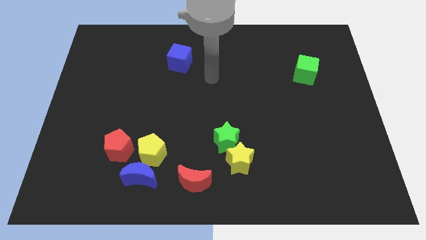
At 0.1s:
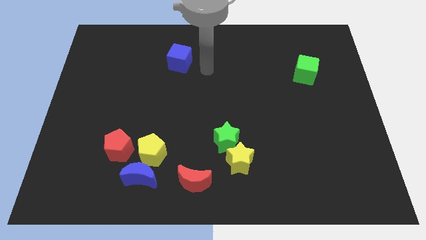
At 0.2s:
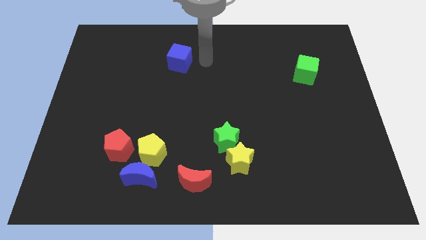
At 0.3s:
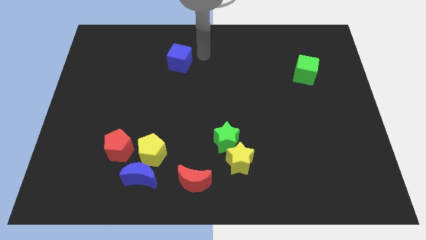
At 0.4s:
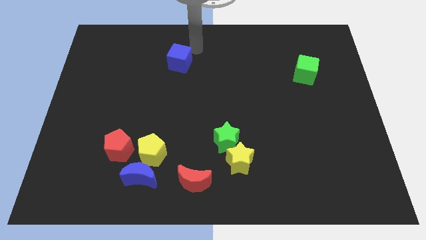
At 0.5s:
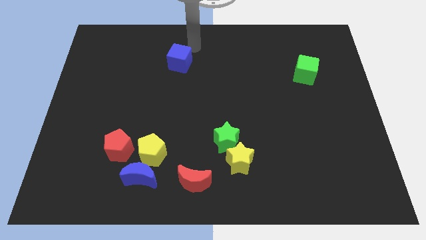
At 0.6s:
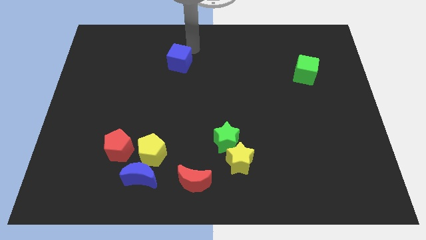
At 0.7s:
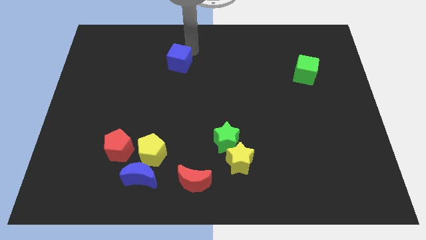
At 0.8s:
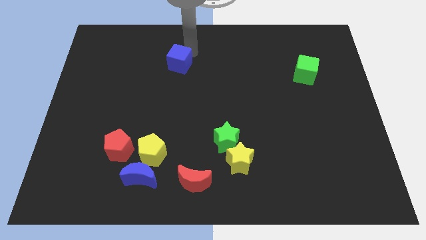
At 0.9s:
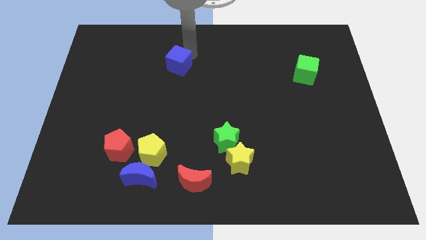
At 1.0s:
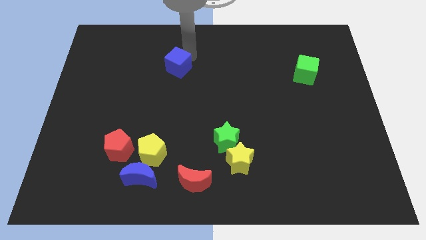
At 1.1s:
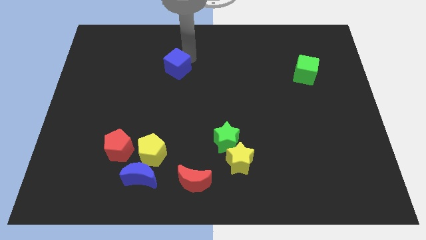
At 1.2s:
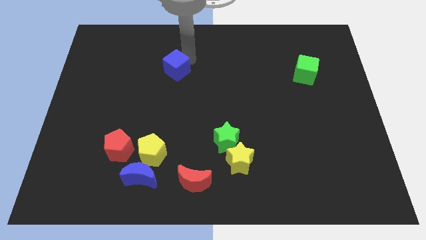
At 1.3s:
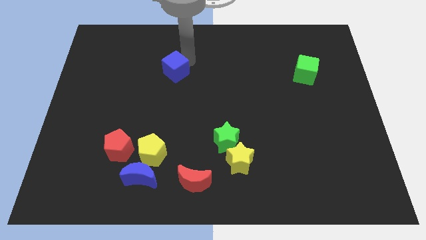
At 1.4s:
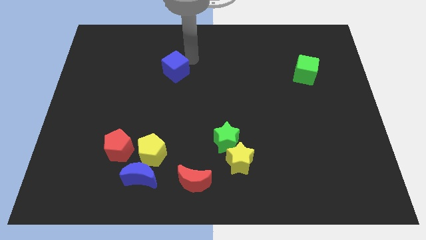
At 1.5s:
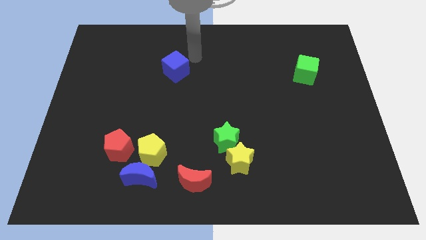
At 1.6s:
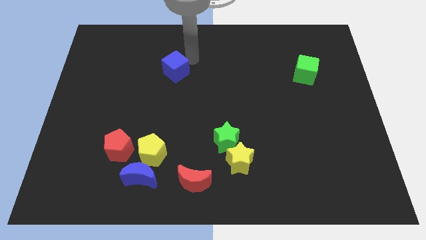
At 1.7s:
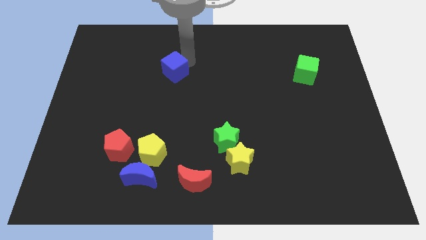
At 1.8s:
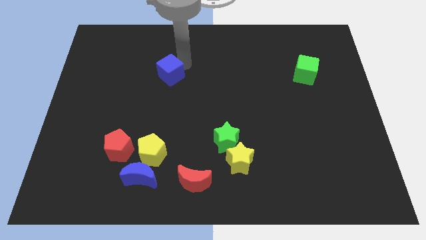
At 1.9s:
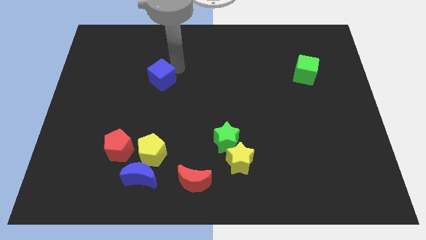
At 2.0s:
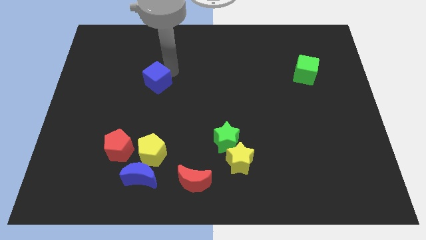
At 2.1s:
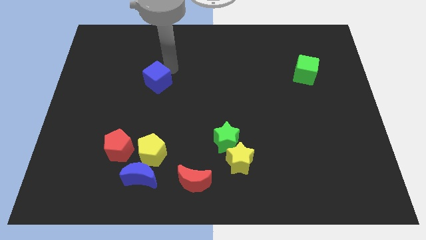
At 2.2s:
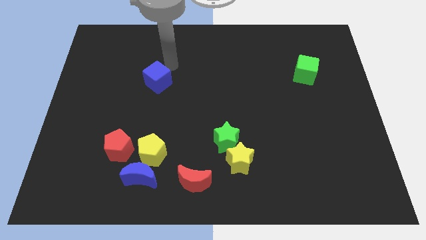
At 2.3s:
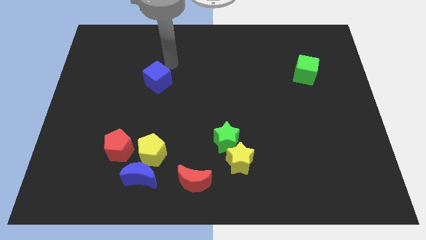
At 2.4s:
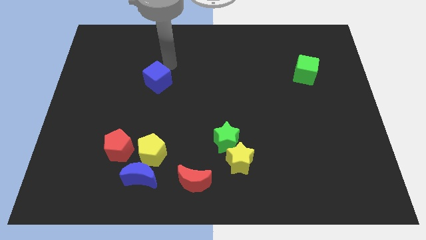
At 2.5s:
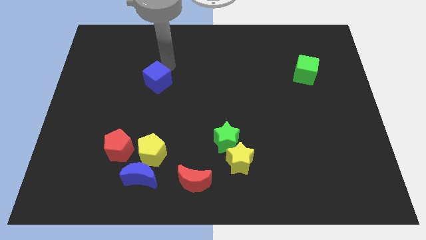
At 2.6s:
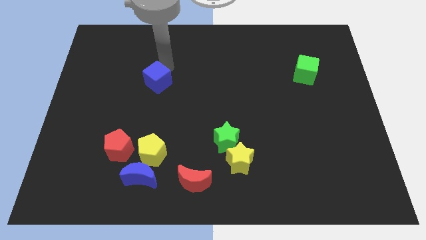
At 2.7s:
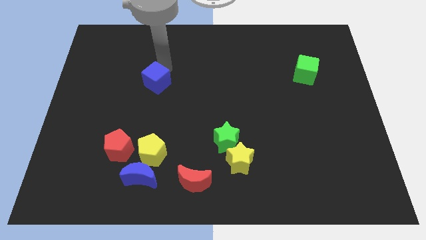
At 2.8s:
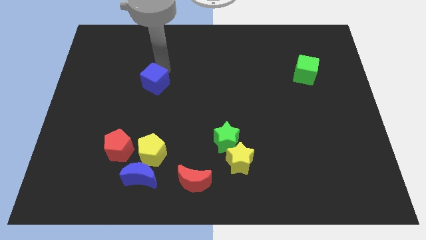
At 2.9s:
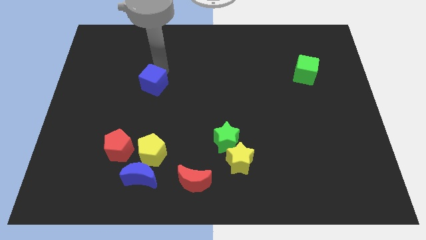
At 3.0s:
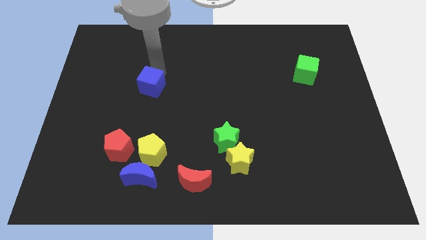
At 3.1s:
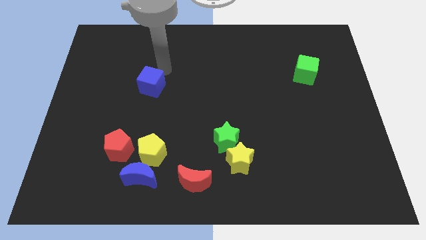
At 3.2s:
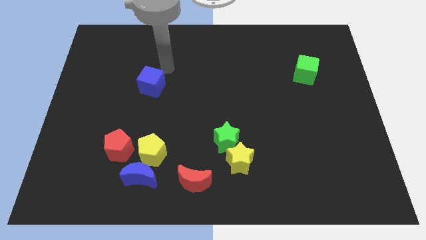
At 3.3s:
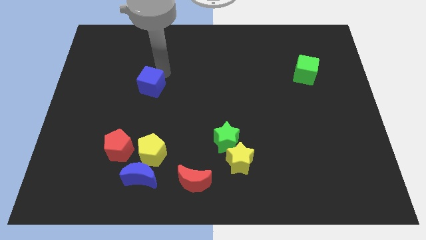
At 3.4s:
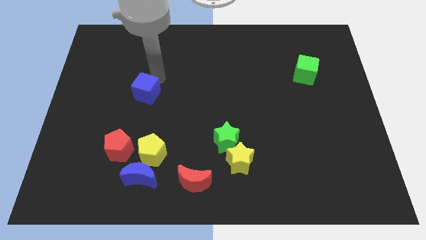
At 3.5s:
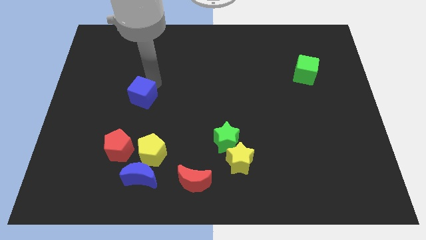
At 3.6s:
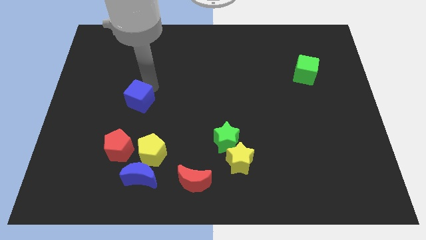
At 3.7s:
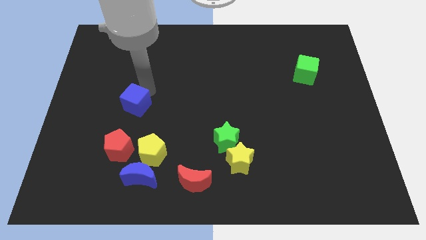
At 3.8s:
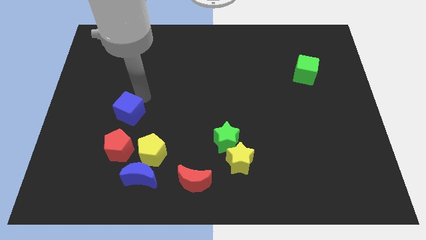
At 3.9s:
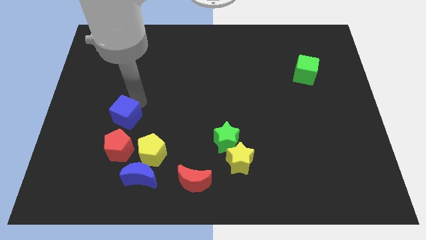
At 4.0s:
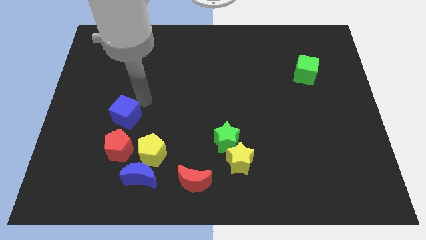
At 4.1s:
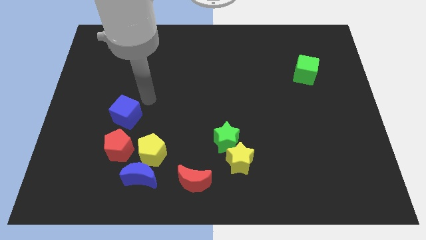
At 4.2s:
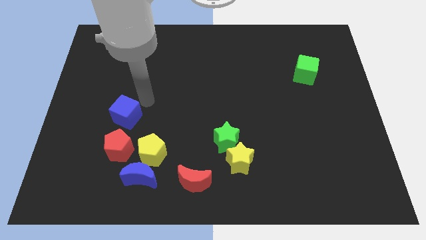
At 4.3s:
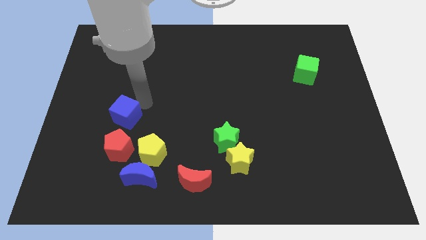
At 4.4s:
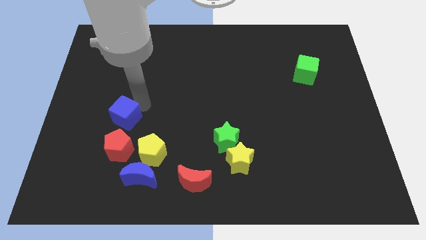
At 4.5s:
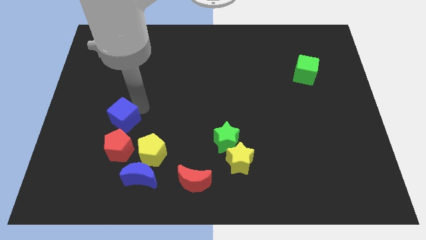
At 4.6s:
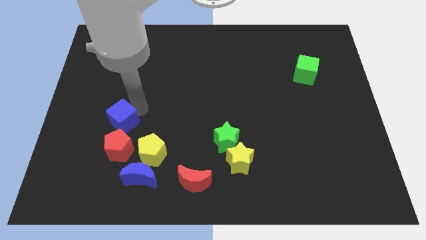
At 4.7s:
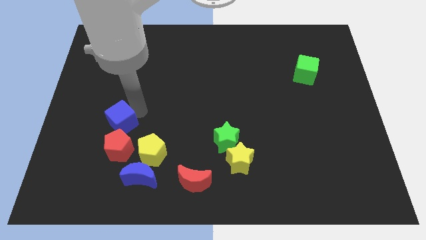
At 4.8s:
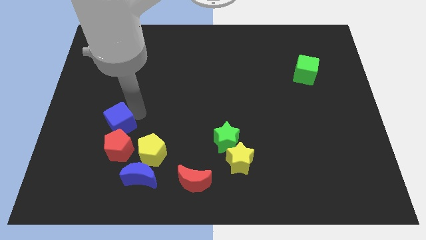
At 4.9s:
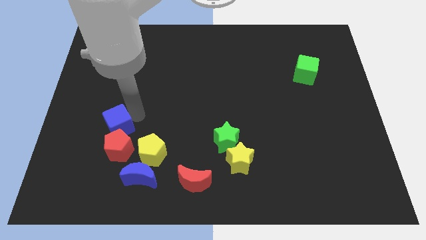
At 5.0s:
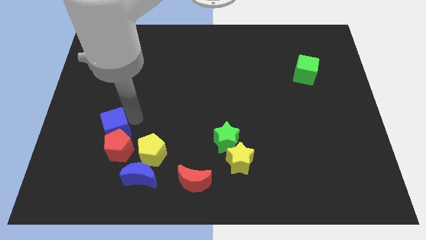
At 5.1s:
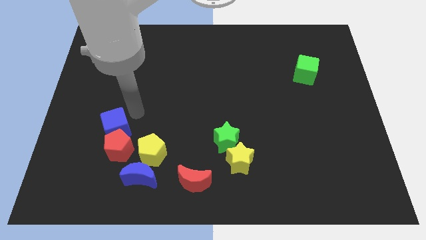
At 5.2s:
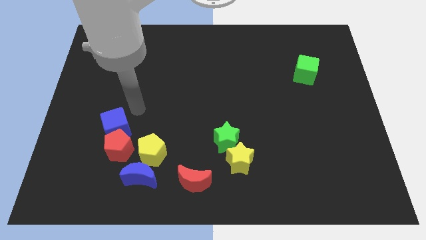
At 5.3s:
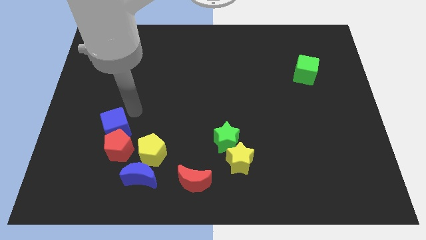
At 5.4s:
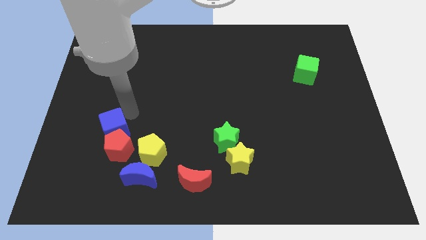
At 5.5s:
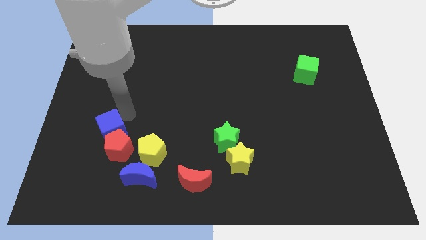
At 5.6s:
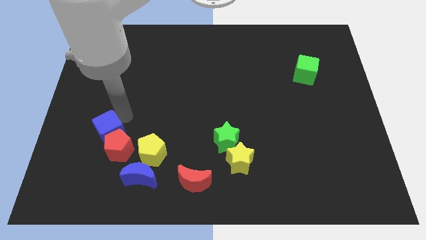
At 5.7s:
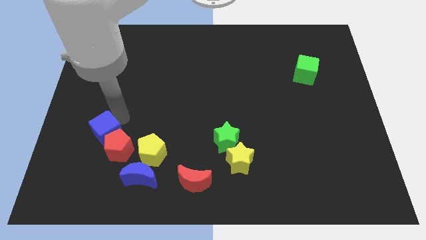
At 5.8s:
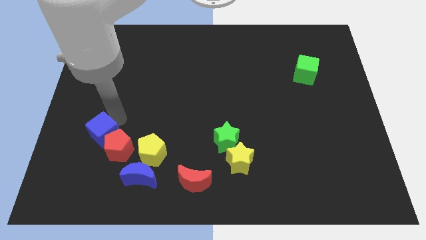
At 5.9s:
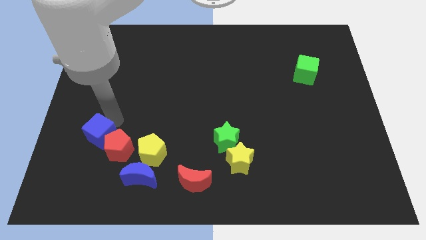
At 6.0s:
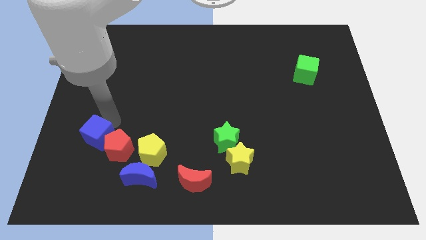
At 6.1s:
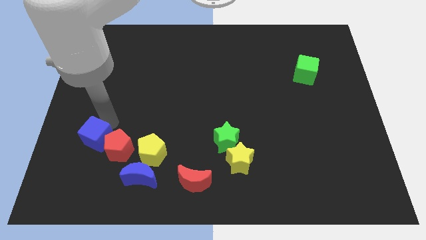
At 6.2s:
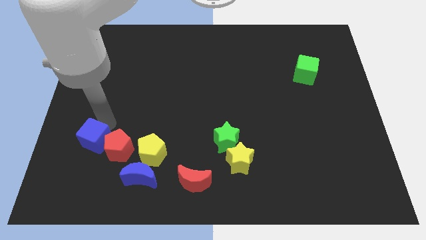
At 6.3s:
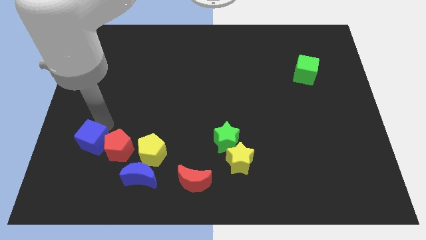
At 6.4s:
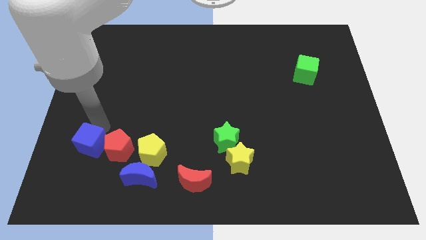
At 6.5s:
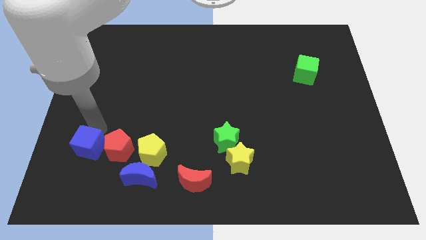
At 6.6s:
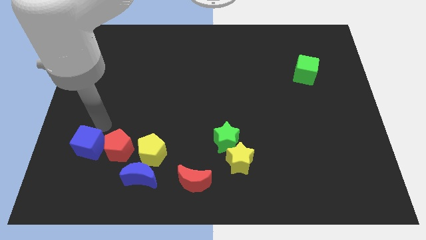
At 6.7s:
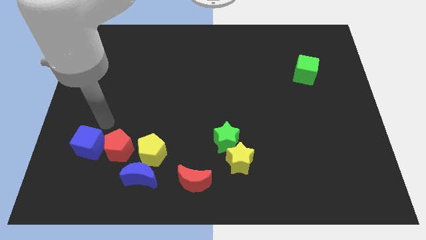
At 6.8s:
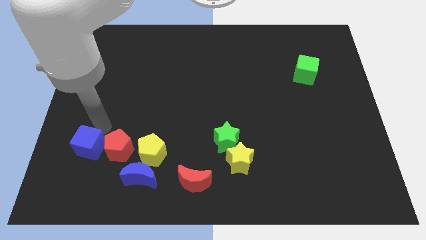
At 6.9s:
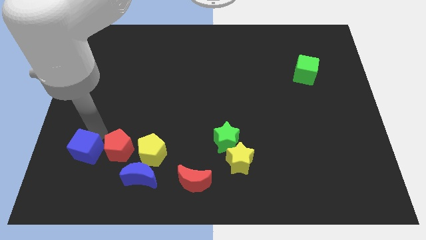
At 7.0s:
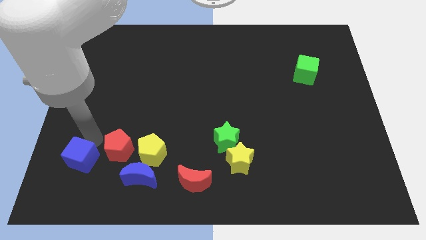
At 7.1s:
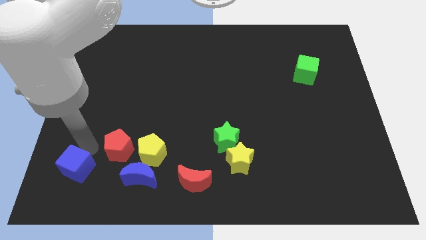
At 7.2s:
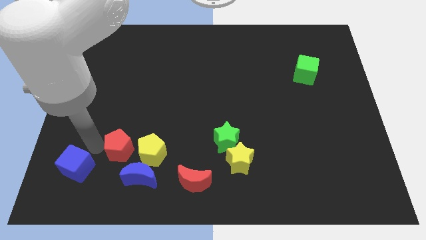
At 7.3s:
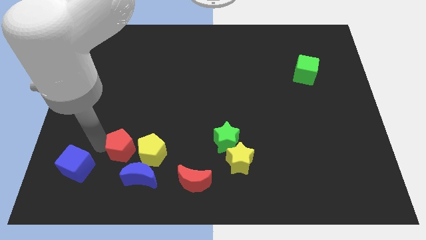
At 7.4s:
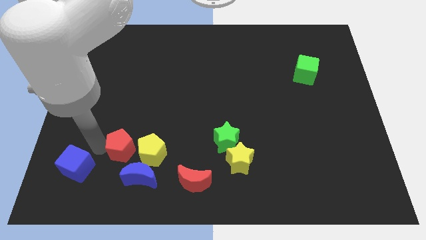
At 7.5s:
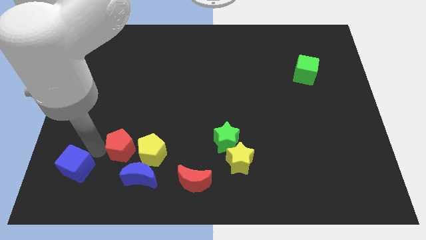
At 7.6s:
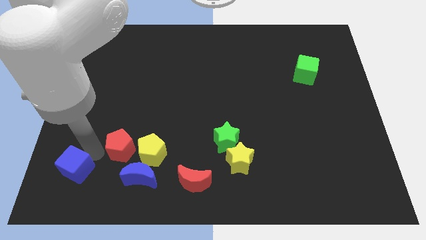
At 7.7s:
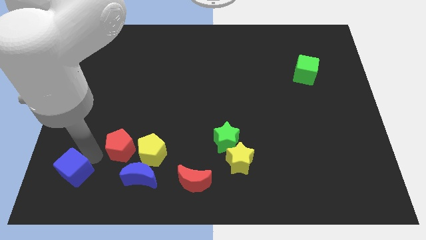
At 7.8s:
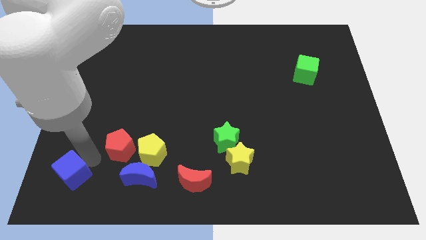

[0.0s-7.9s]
push the blue cube to the lower left corner
